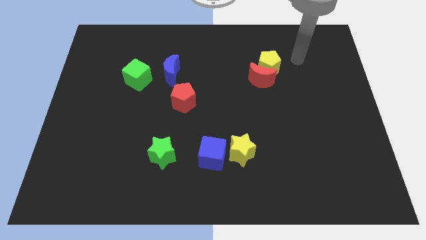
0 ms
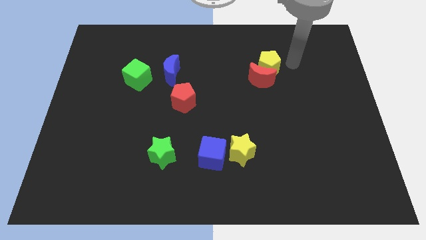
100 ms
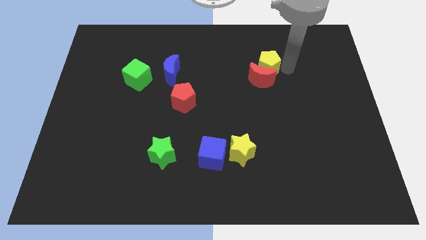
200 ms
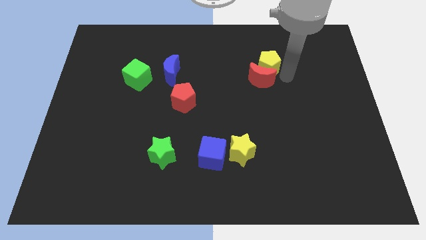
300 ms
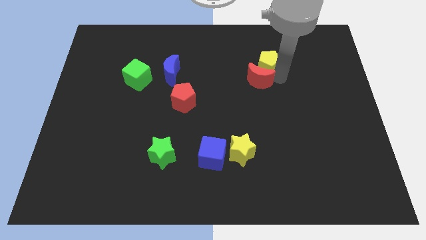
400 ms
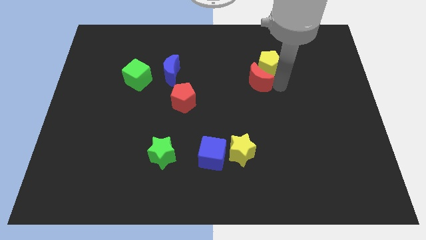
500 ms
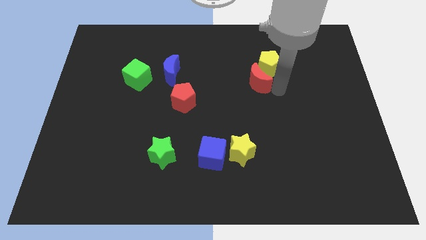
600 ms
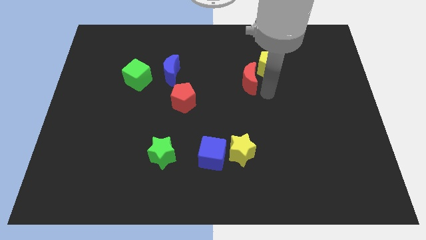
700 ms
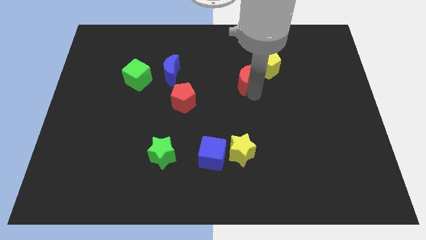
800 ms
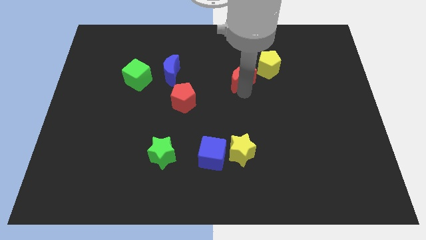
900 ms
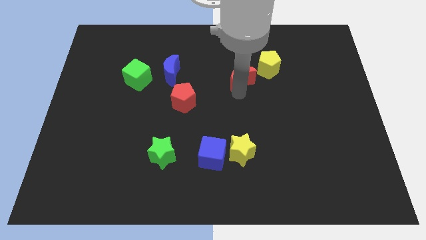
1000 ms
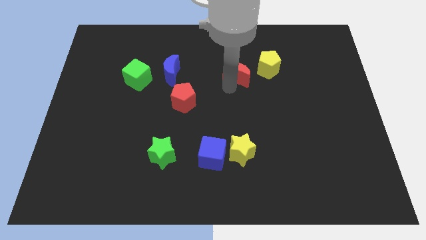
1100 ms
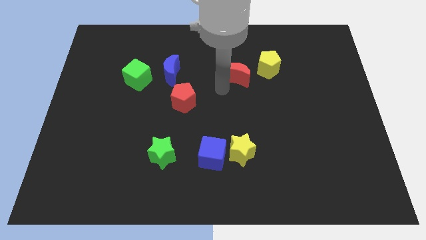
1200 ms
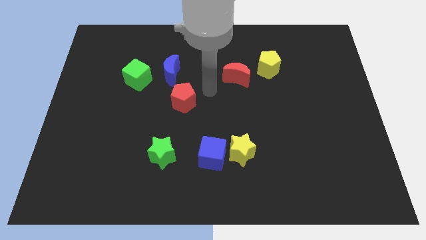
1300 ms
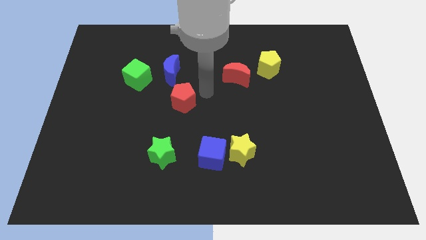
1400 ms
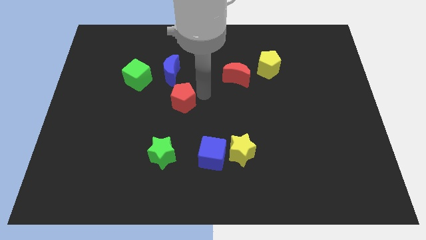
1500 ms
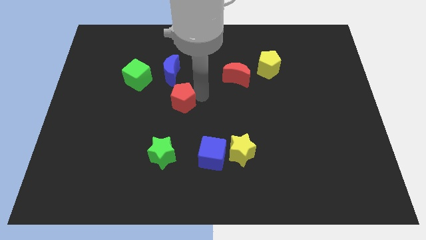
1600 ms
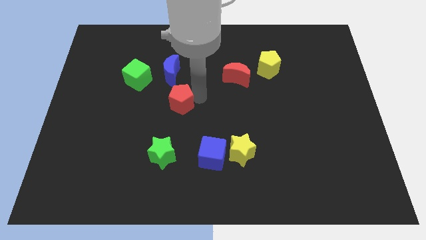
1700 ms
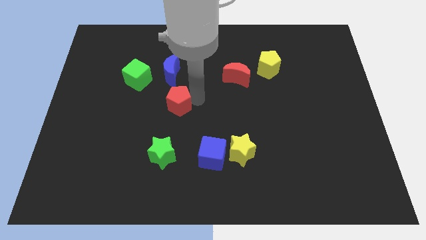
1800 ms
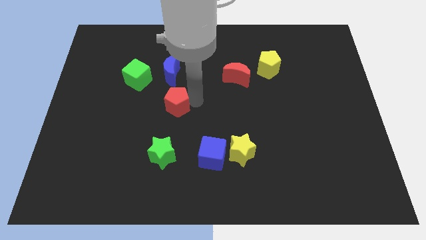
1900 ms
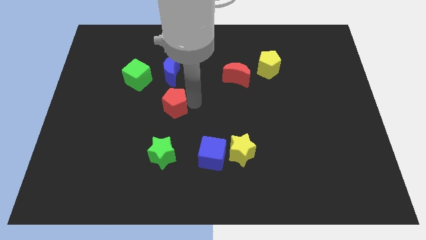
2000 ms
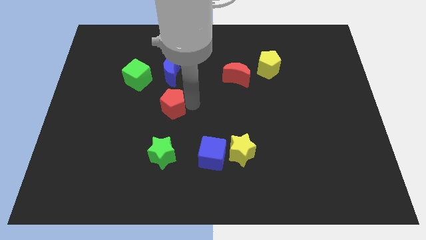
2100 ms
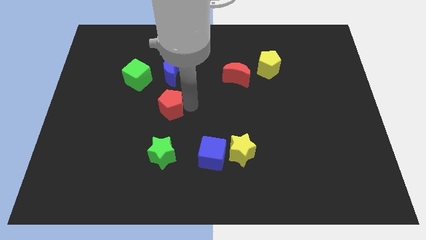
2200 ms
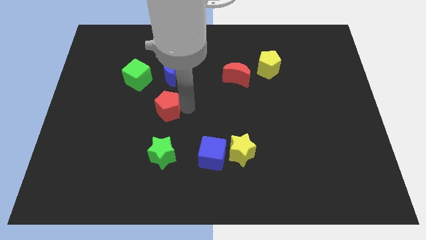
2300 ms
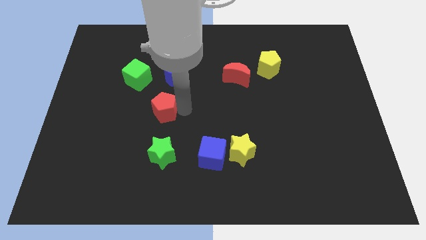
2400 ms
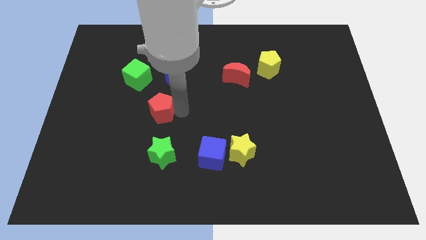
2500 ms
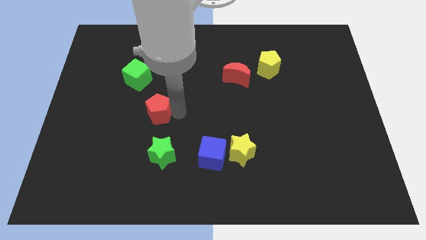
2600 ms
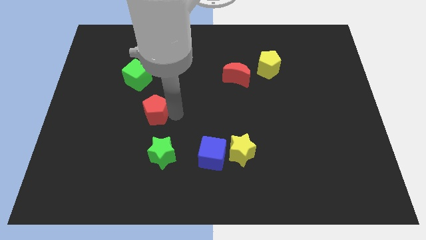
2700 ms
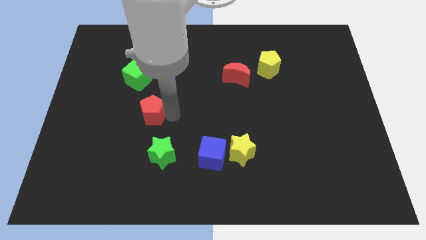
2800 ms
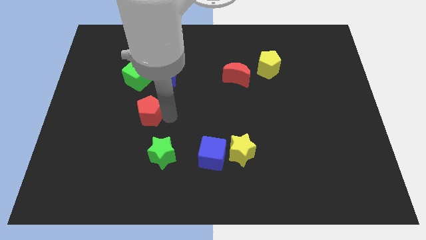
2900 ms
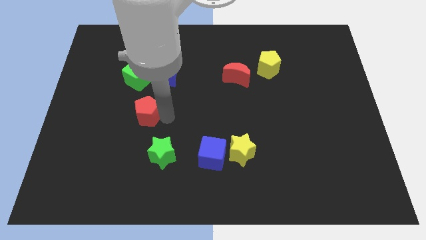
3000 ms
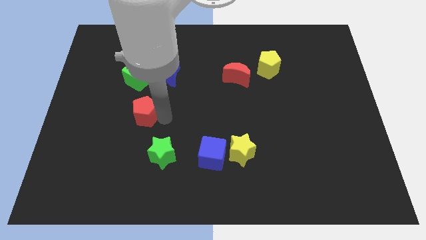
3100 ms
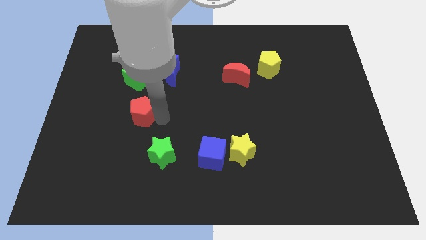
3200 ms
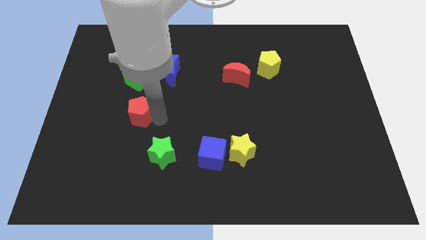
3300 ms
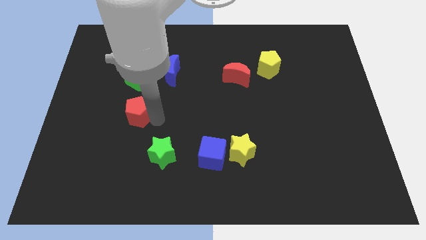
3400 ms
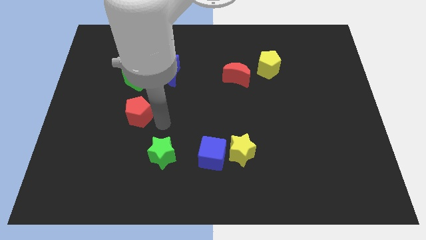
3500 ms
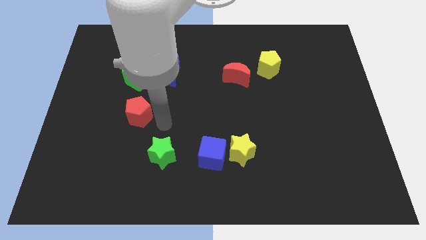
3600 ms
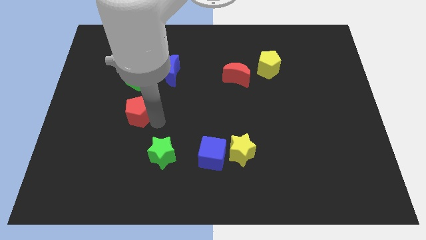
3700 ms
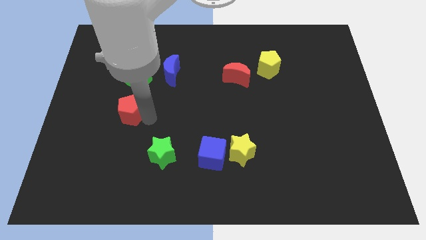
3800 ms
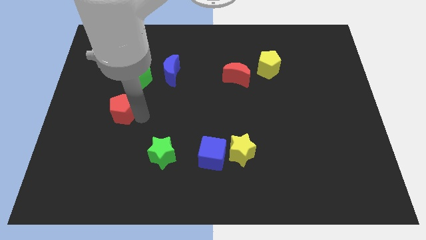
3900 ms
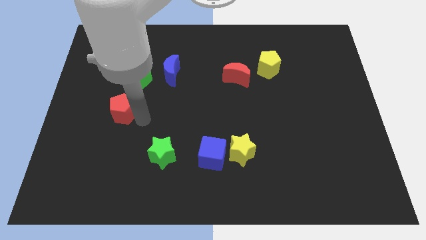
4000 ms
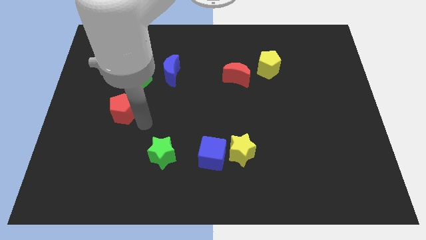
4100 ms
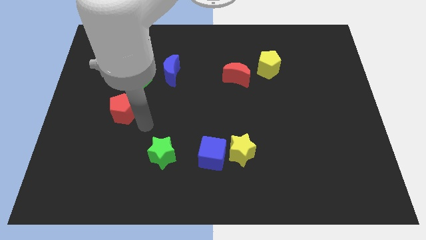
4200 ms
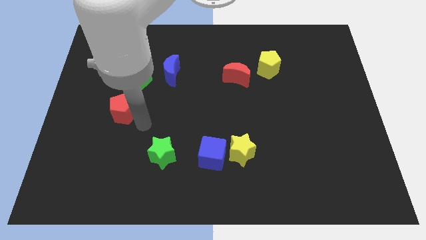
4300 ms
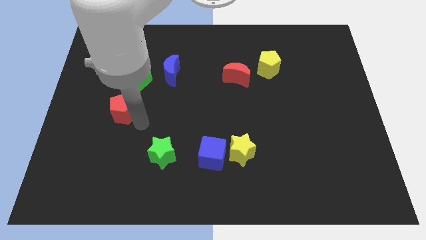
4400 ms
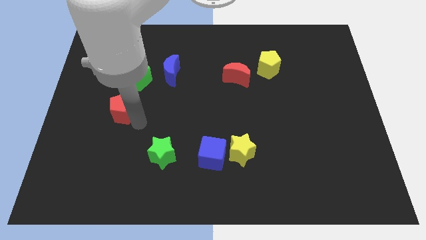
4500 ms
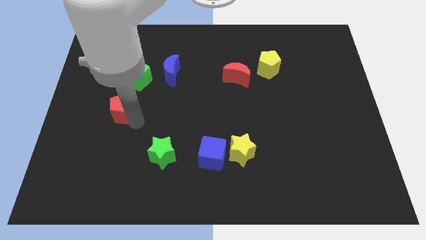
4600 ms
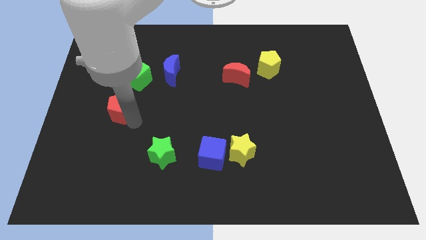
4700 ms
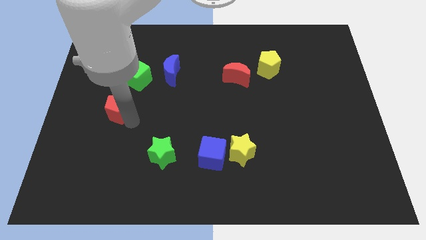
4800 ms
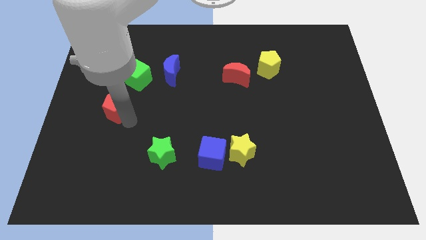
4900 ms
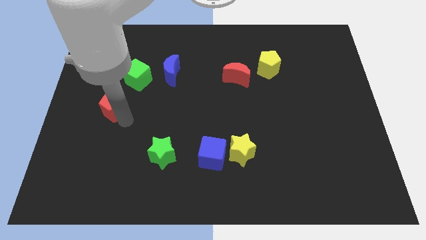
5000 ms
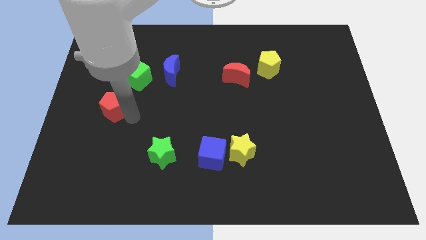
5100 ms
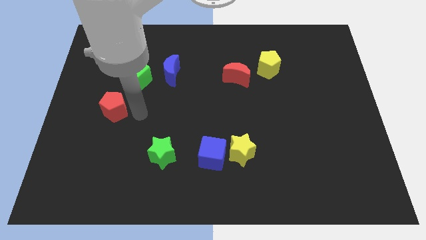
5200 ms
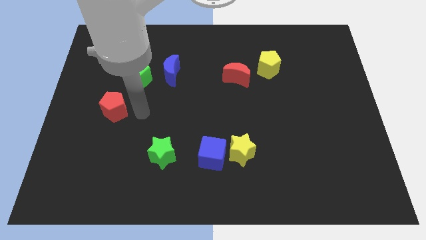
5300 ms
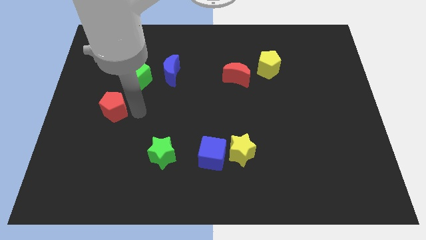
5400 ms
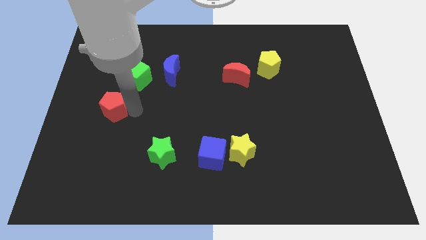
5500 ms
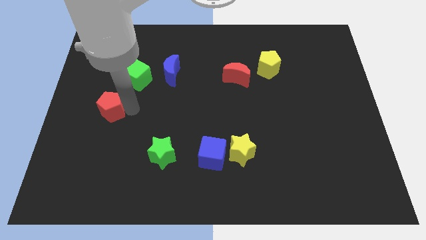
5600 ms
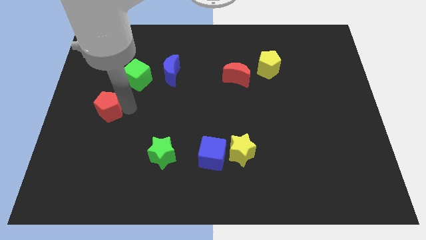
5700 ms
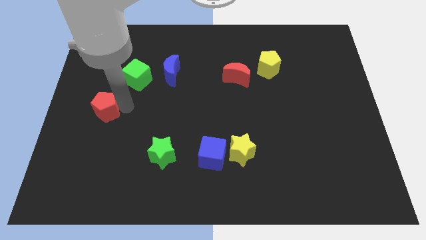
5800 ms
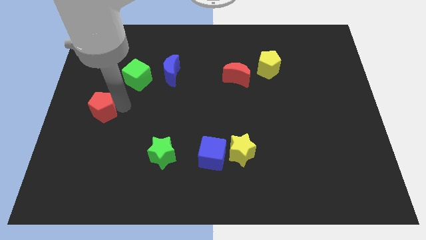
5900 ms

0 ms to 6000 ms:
put the red pentagon to the left side of the board

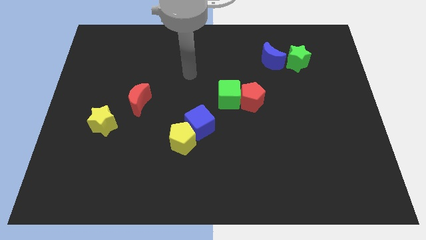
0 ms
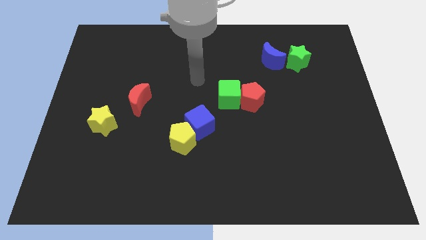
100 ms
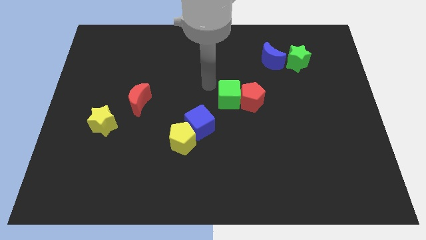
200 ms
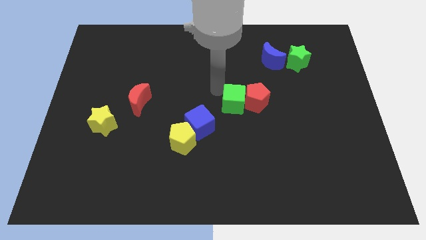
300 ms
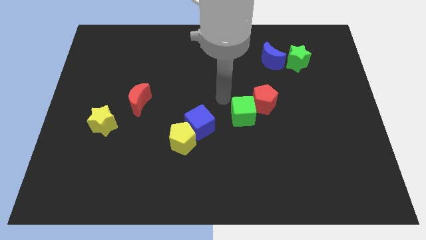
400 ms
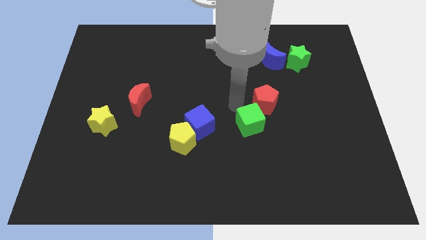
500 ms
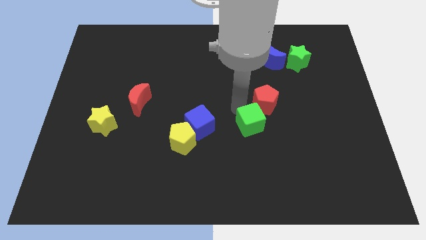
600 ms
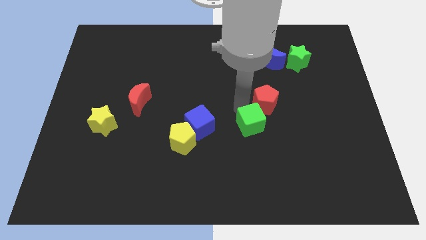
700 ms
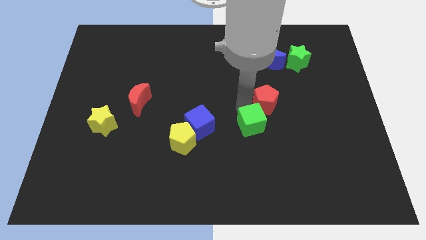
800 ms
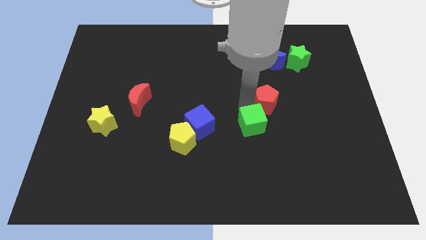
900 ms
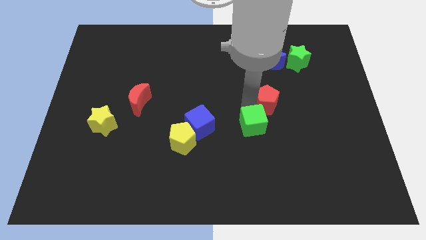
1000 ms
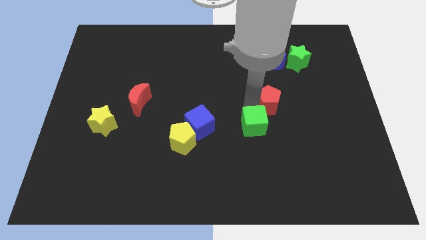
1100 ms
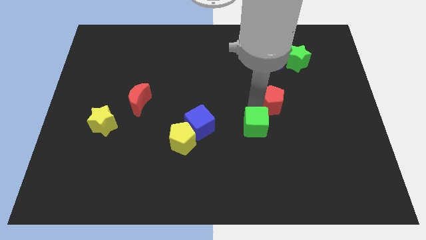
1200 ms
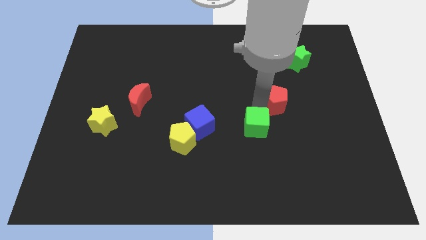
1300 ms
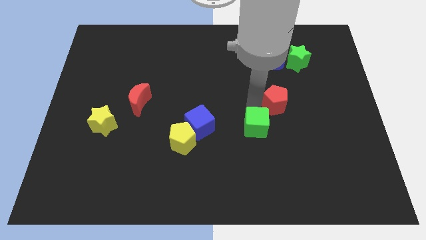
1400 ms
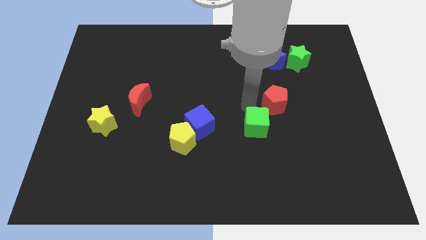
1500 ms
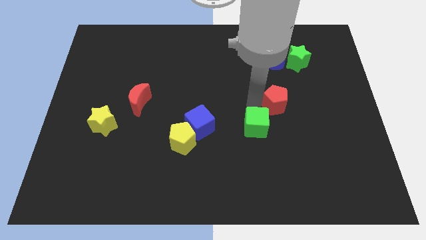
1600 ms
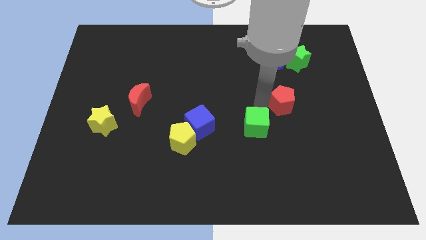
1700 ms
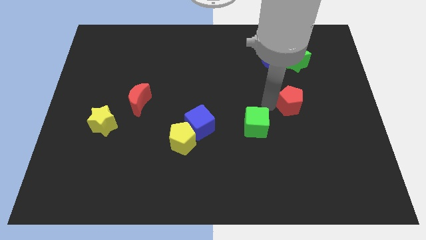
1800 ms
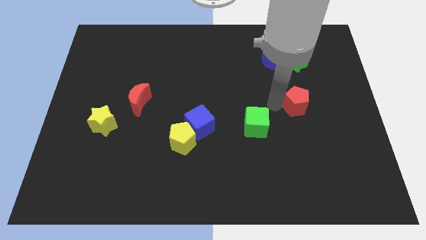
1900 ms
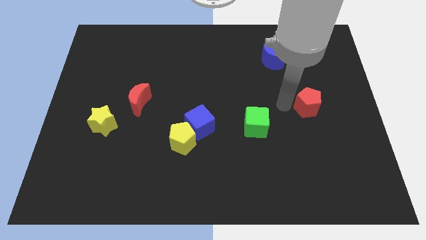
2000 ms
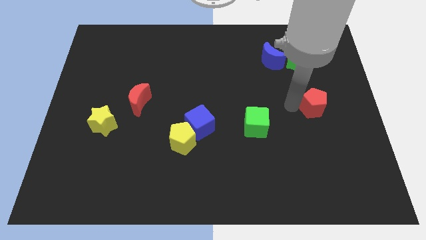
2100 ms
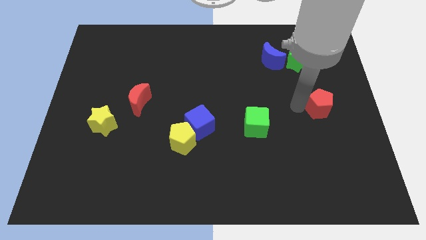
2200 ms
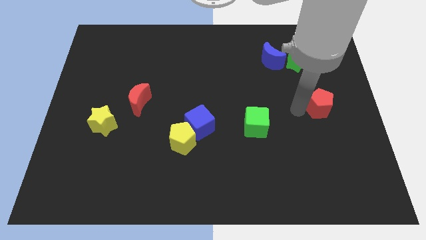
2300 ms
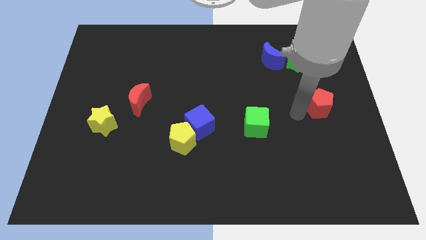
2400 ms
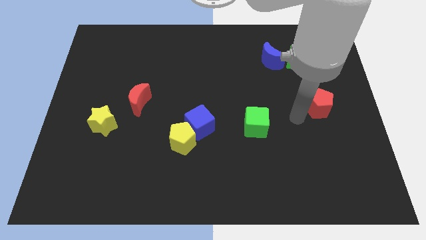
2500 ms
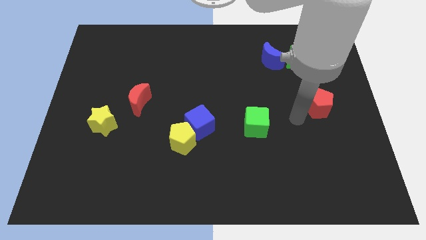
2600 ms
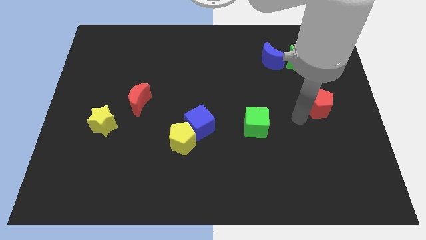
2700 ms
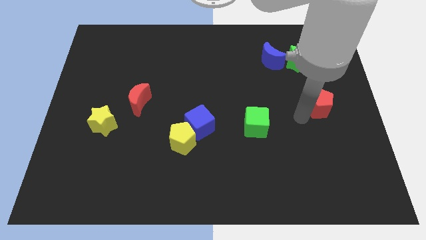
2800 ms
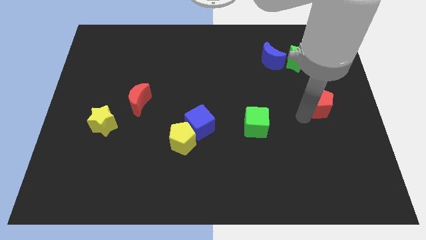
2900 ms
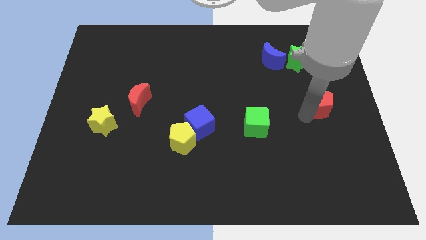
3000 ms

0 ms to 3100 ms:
put the red pentagon to the right side
